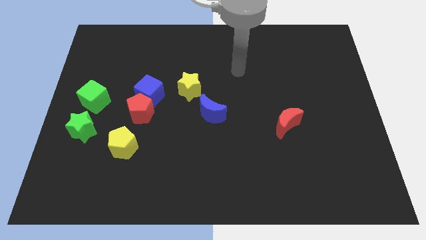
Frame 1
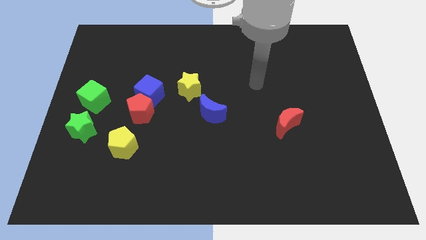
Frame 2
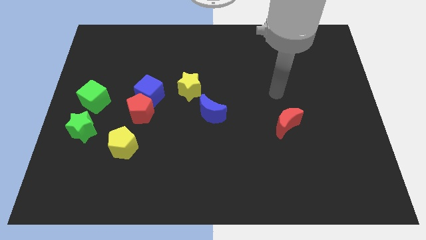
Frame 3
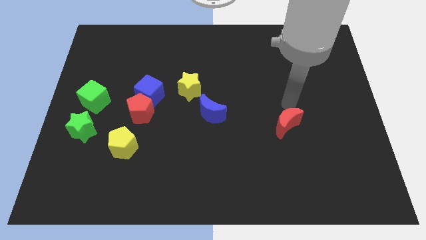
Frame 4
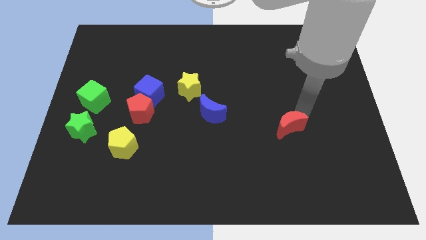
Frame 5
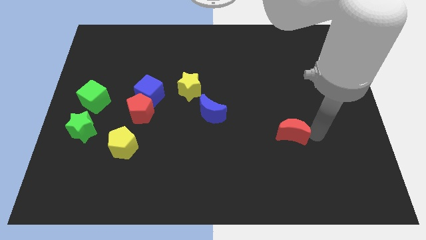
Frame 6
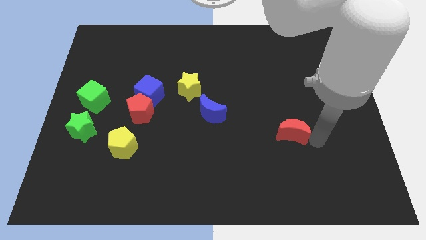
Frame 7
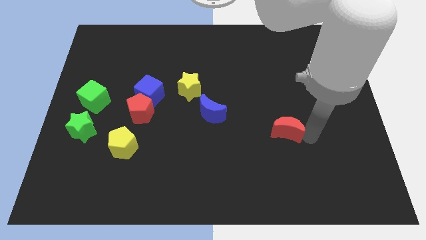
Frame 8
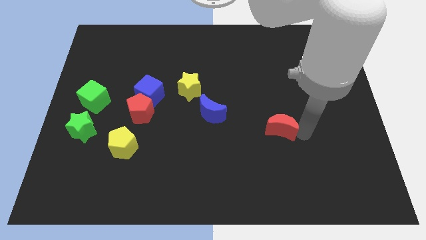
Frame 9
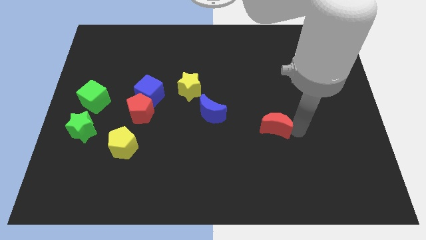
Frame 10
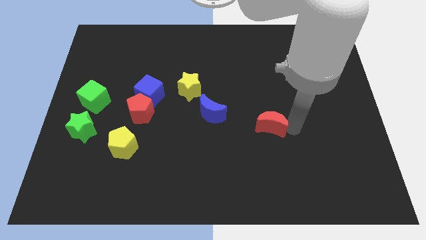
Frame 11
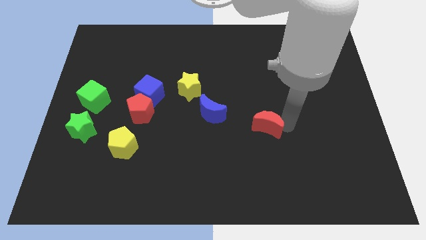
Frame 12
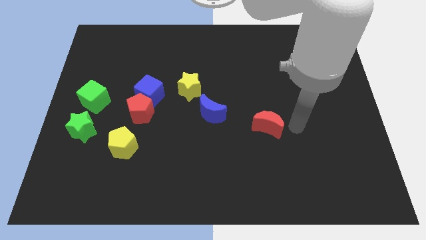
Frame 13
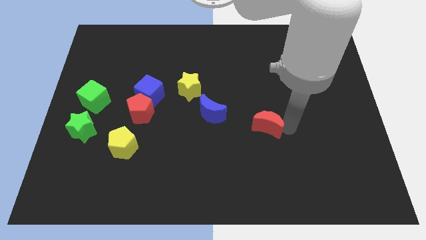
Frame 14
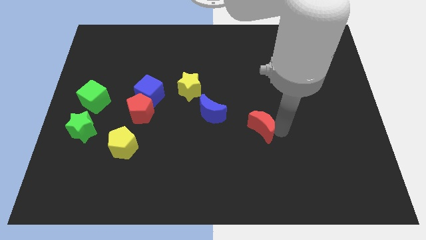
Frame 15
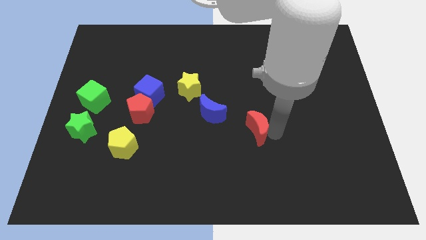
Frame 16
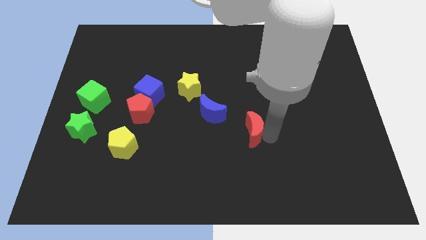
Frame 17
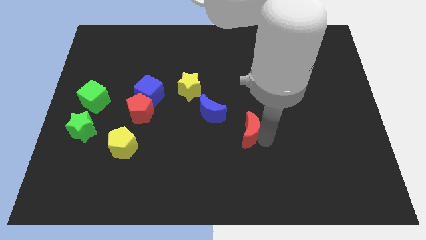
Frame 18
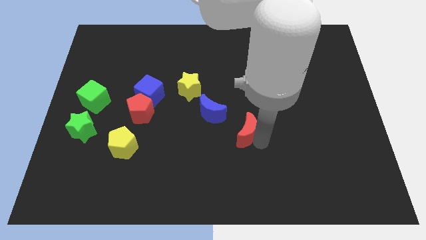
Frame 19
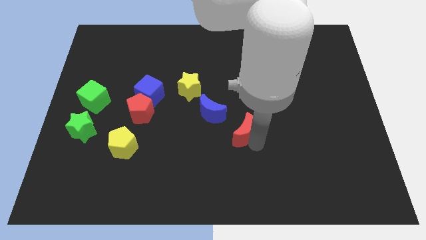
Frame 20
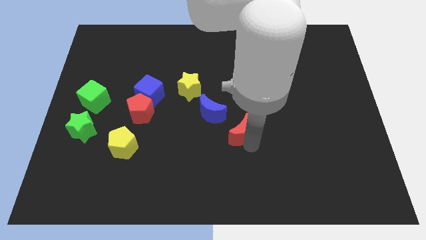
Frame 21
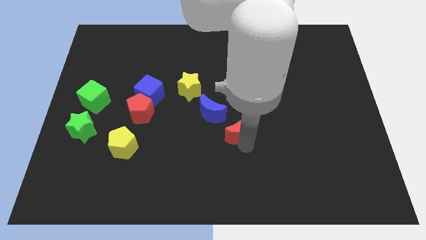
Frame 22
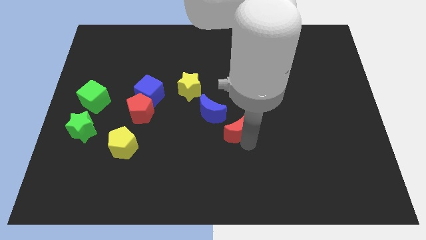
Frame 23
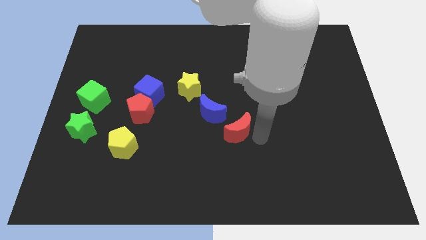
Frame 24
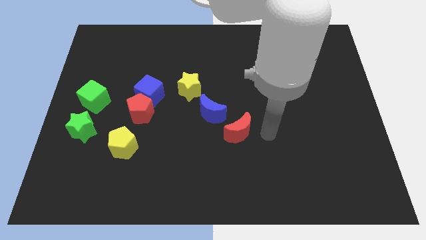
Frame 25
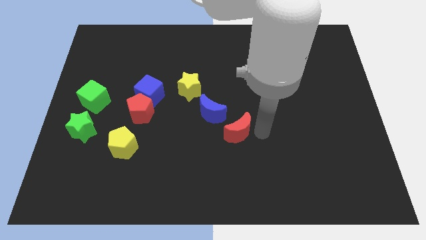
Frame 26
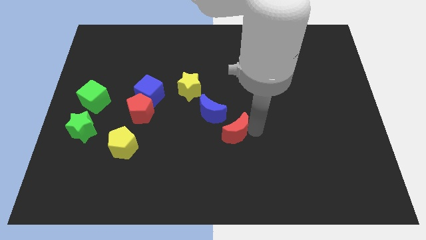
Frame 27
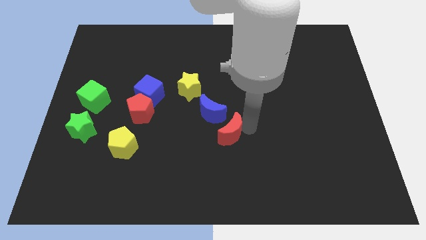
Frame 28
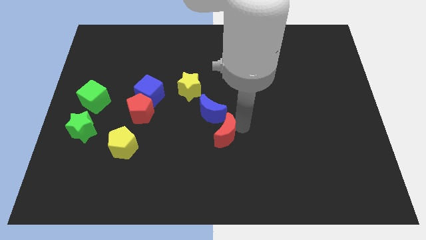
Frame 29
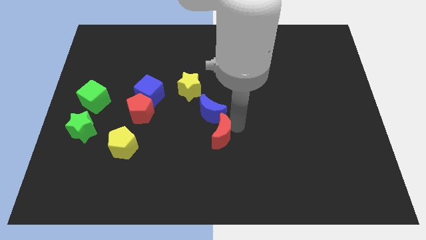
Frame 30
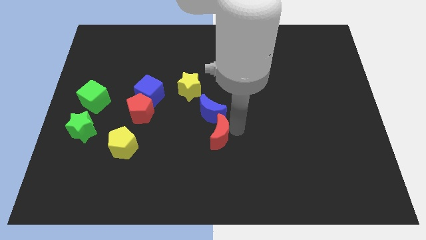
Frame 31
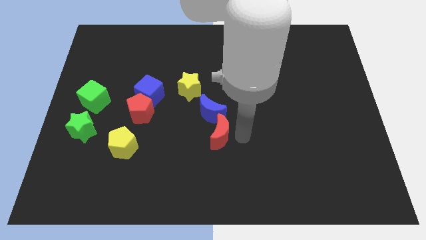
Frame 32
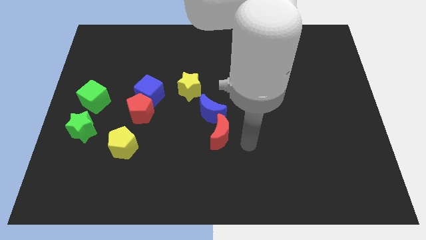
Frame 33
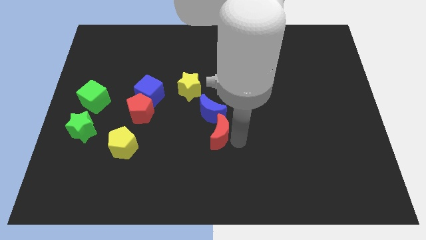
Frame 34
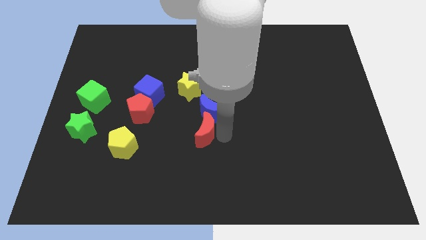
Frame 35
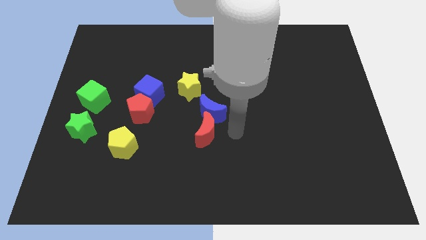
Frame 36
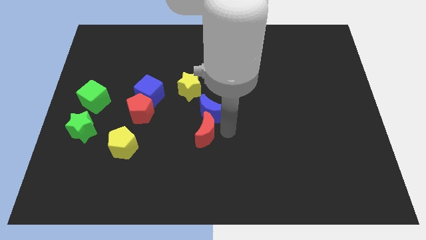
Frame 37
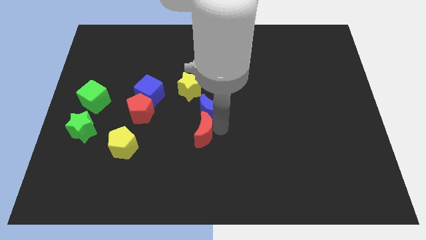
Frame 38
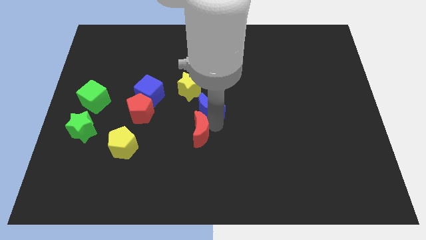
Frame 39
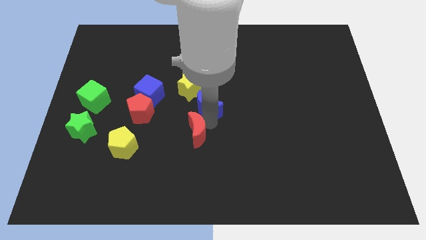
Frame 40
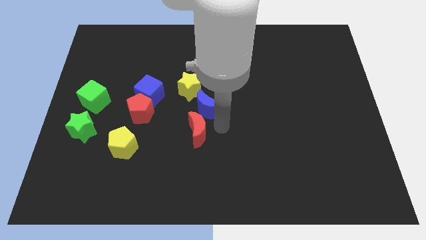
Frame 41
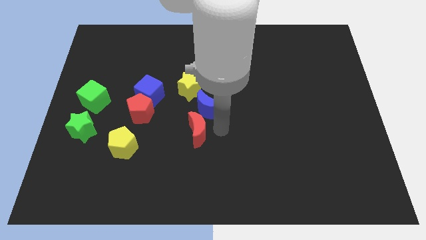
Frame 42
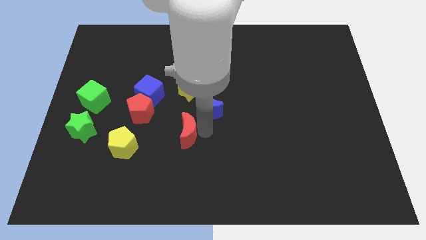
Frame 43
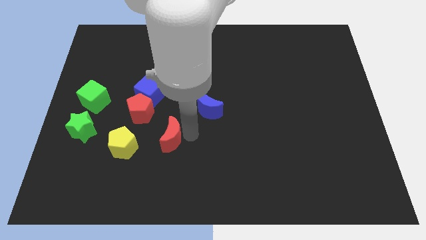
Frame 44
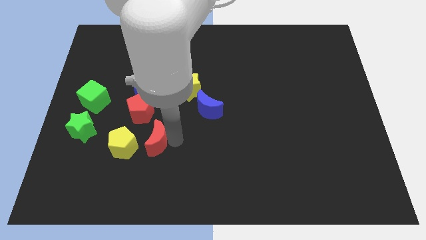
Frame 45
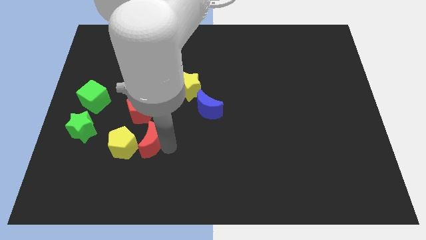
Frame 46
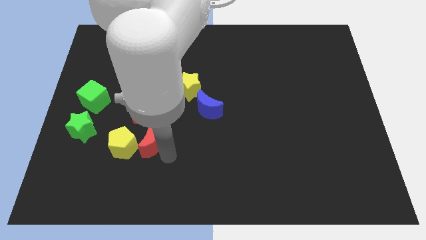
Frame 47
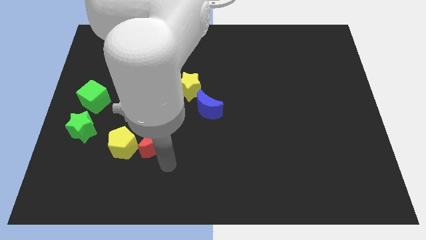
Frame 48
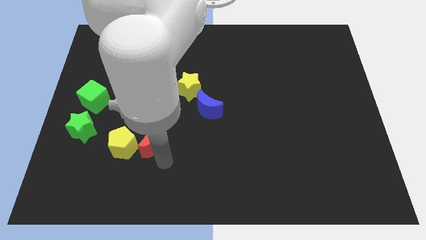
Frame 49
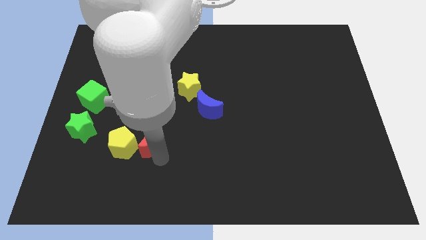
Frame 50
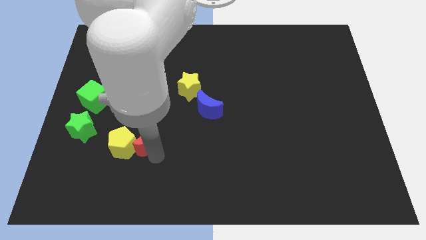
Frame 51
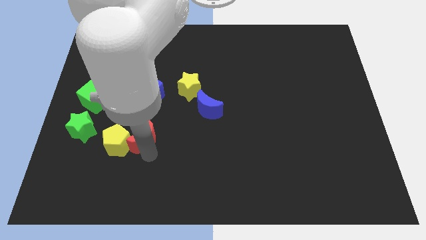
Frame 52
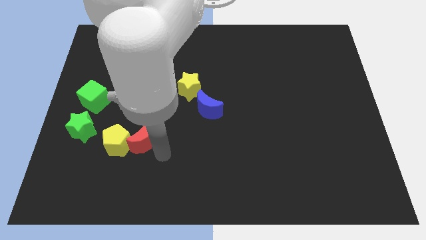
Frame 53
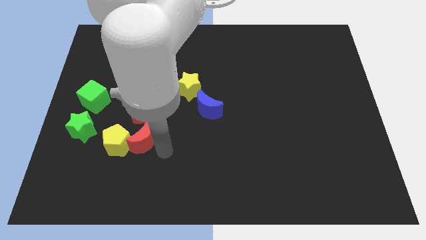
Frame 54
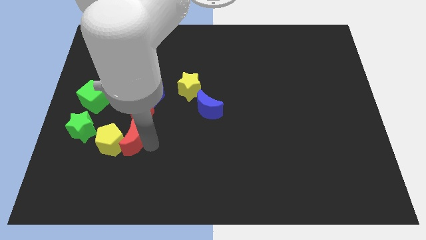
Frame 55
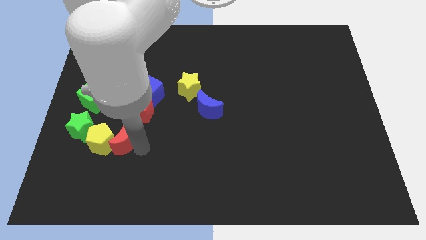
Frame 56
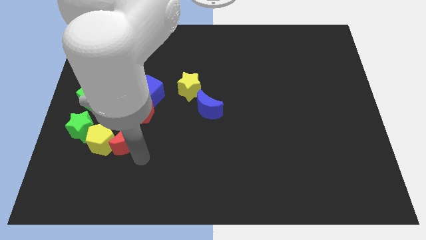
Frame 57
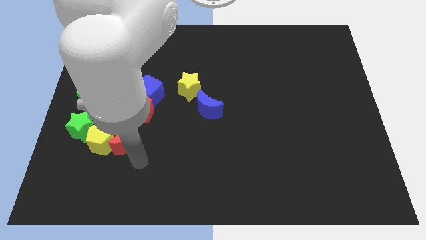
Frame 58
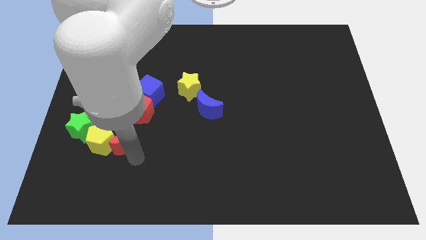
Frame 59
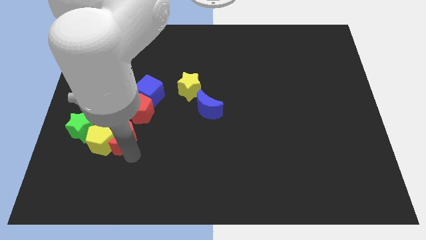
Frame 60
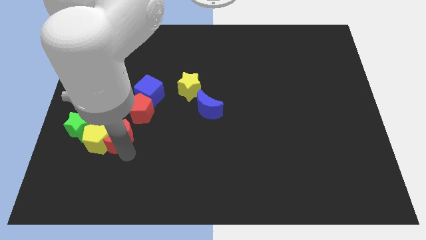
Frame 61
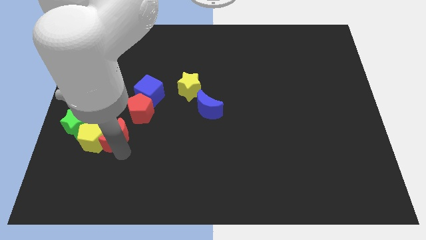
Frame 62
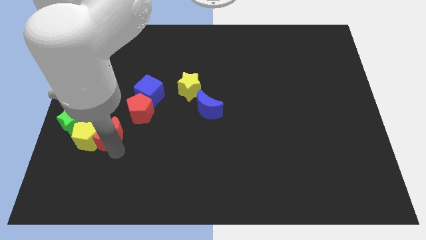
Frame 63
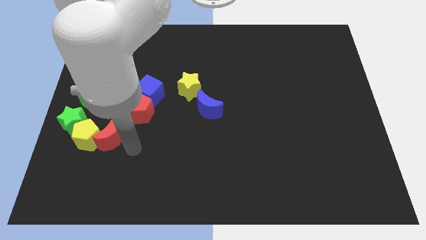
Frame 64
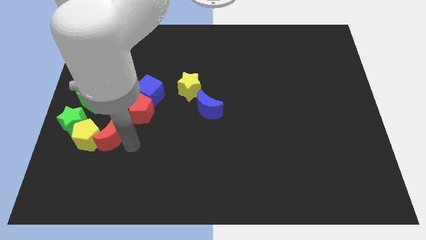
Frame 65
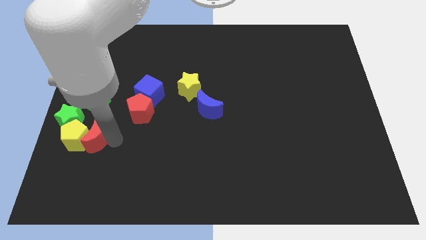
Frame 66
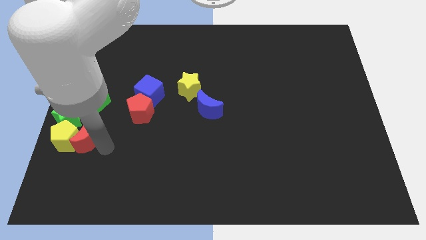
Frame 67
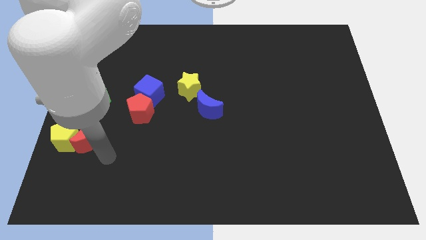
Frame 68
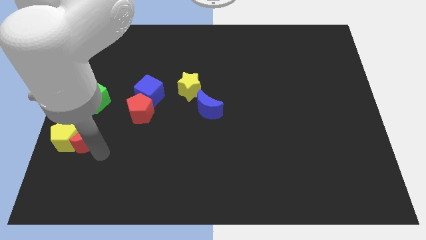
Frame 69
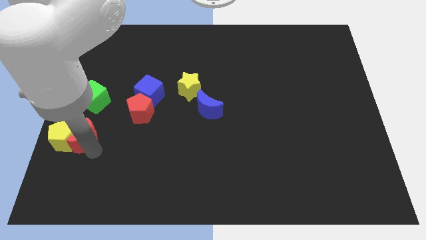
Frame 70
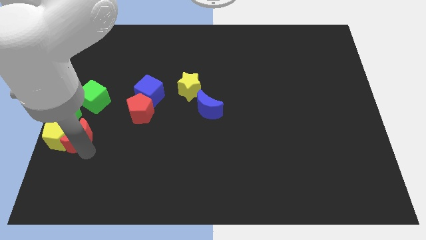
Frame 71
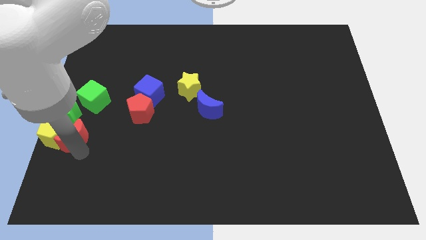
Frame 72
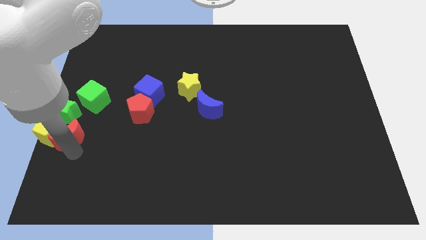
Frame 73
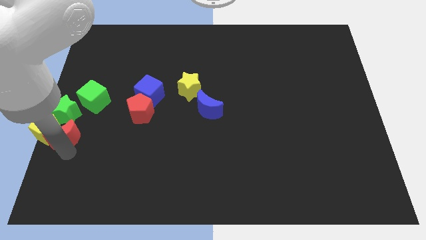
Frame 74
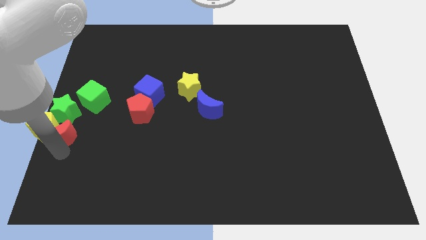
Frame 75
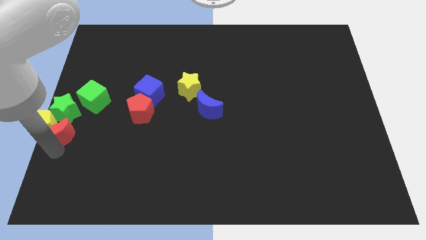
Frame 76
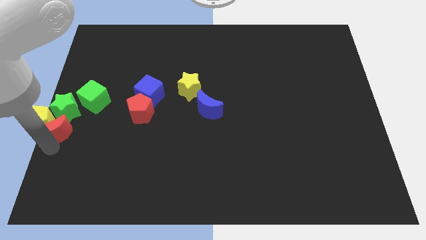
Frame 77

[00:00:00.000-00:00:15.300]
slide the red moon to the green star
